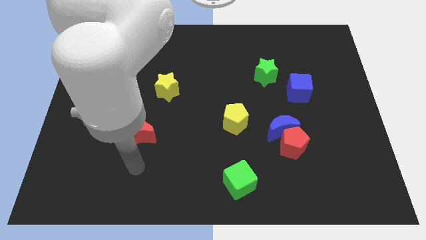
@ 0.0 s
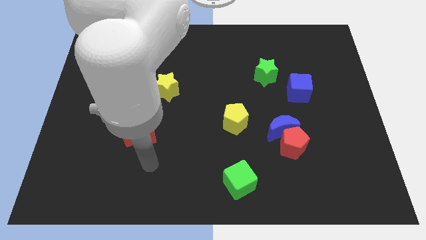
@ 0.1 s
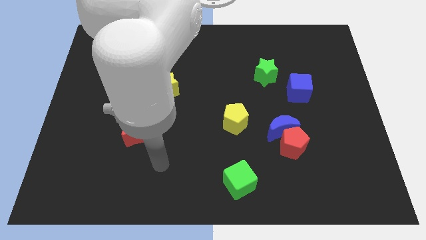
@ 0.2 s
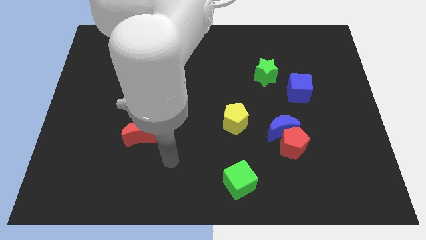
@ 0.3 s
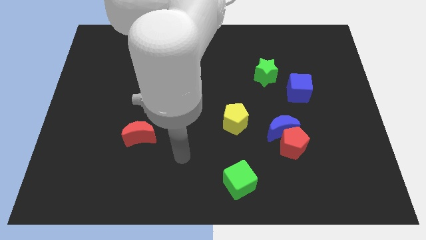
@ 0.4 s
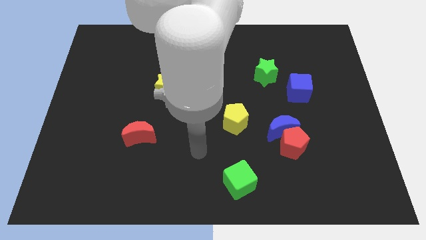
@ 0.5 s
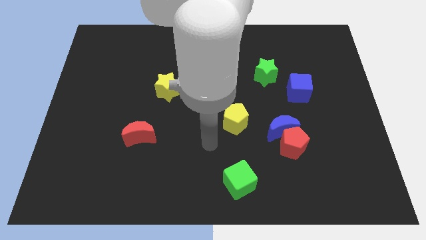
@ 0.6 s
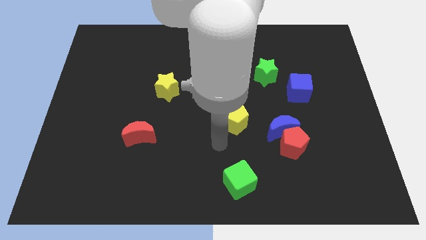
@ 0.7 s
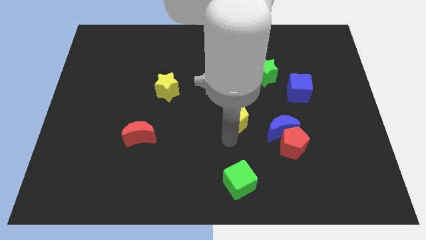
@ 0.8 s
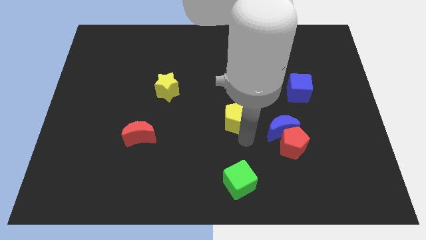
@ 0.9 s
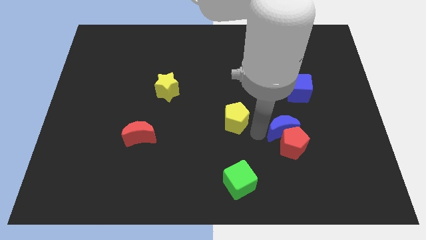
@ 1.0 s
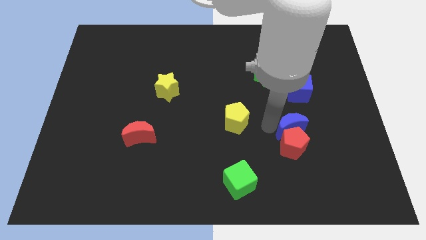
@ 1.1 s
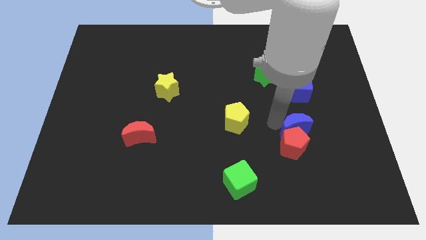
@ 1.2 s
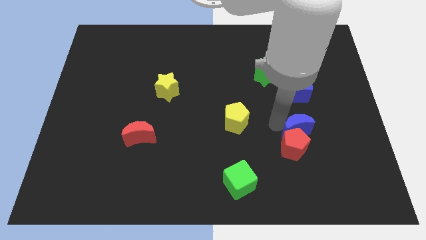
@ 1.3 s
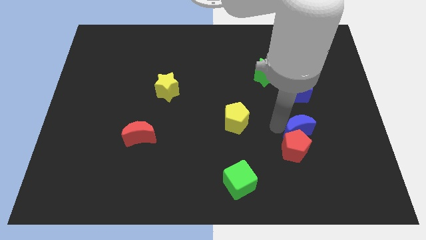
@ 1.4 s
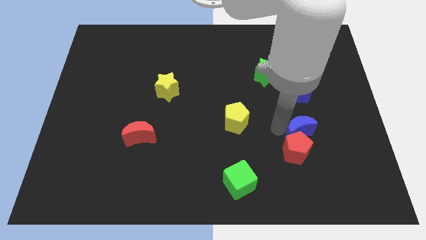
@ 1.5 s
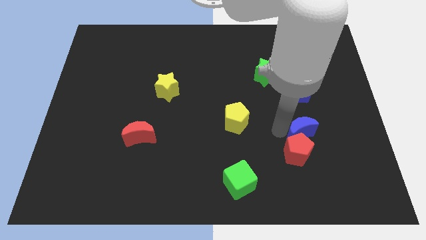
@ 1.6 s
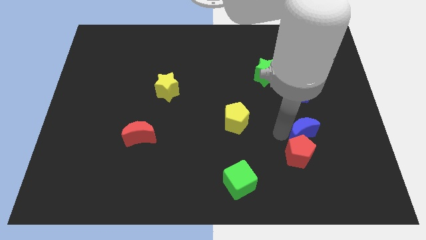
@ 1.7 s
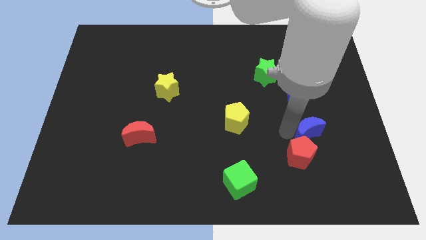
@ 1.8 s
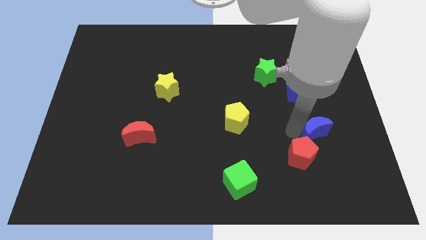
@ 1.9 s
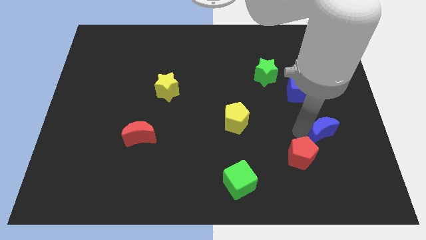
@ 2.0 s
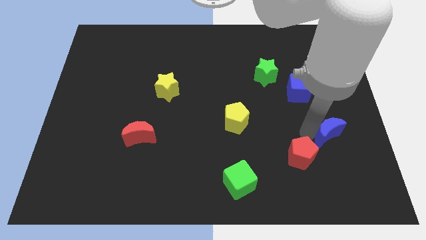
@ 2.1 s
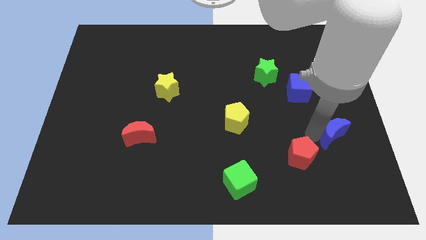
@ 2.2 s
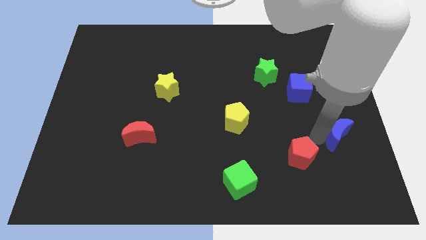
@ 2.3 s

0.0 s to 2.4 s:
separate the red pentagon from the blue moon

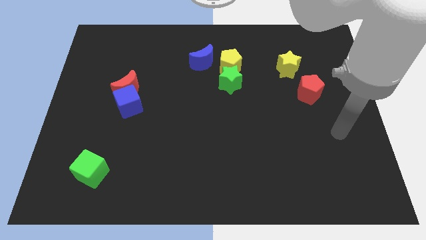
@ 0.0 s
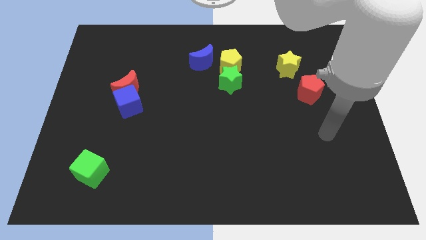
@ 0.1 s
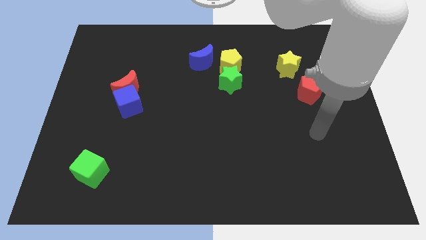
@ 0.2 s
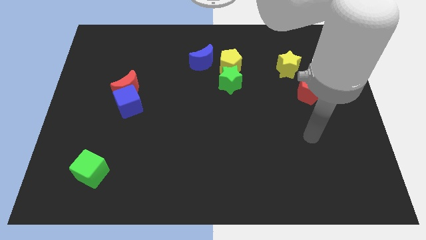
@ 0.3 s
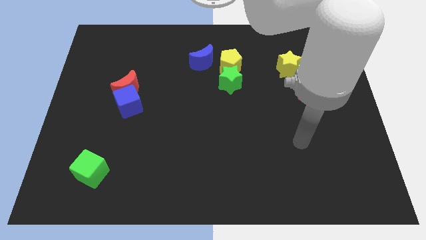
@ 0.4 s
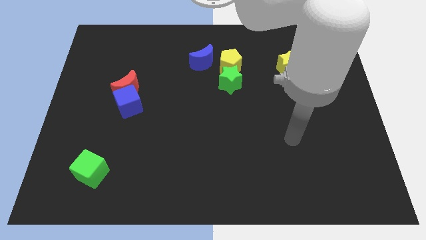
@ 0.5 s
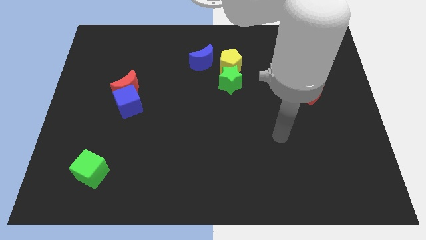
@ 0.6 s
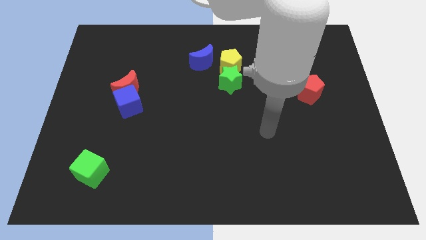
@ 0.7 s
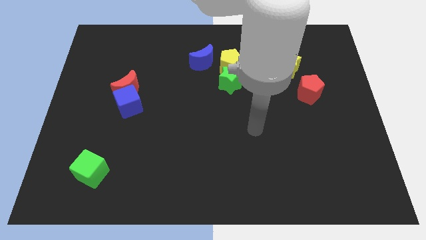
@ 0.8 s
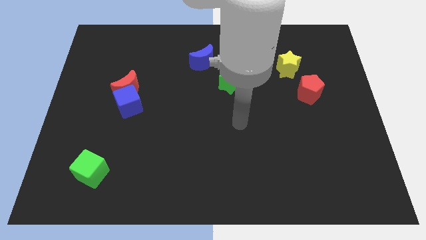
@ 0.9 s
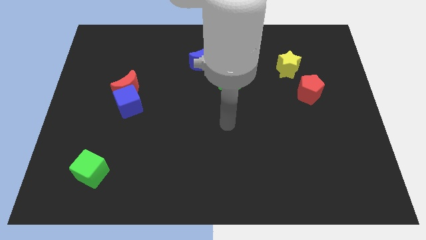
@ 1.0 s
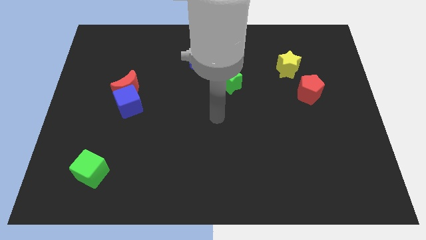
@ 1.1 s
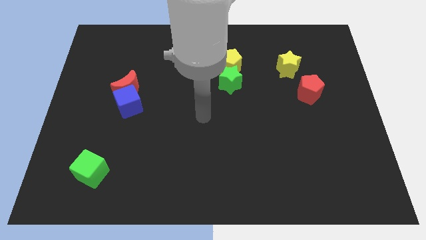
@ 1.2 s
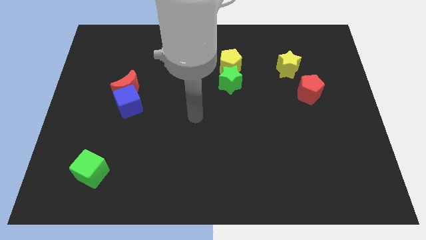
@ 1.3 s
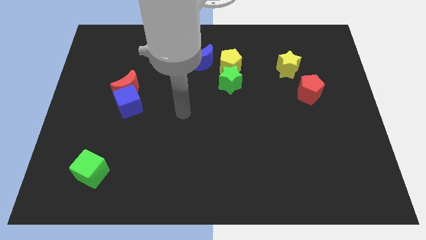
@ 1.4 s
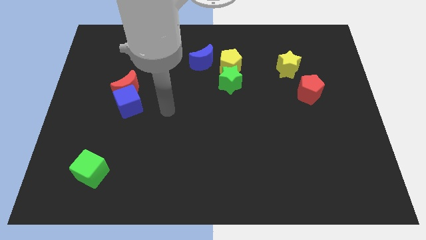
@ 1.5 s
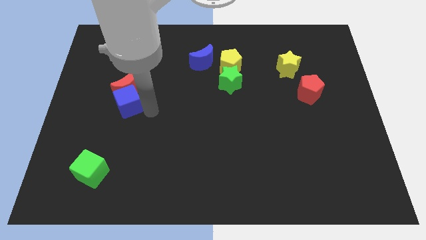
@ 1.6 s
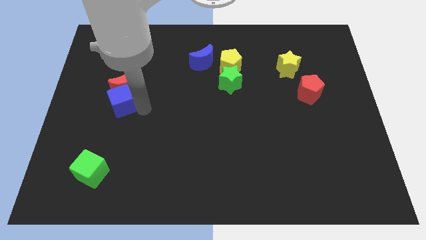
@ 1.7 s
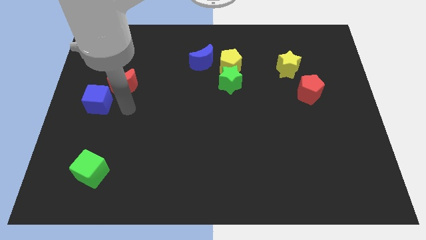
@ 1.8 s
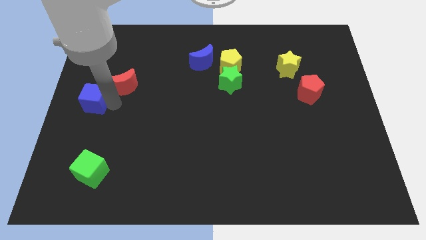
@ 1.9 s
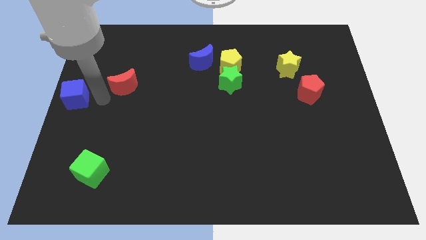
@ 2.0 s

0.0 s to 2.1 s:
pull the red moon apart from the blue cube

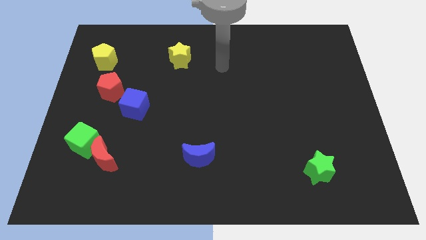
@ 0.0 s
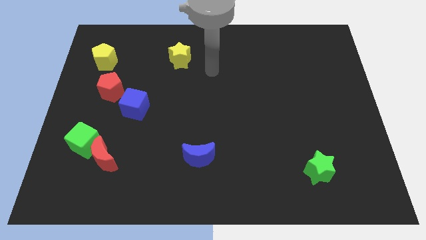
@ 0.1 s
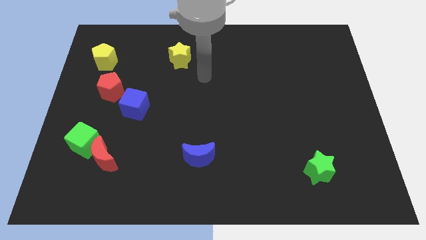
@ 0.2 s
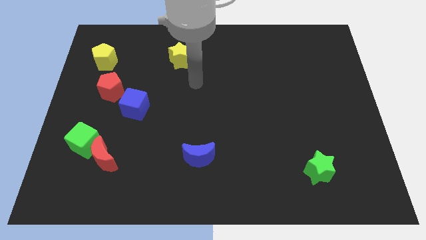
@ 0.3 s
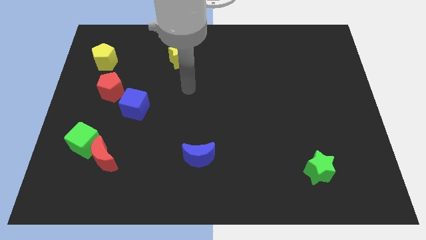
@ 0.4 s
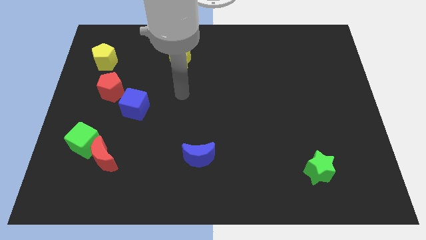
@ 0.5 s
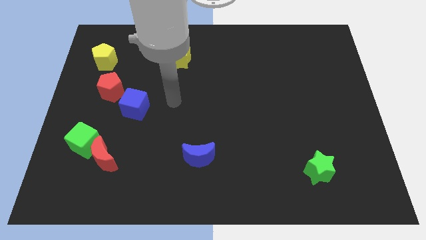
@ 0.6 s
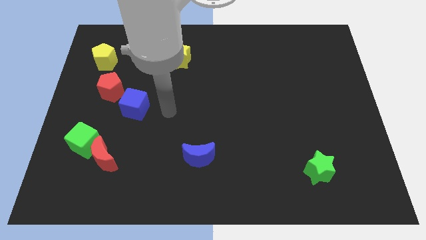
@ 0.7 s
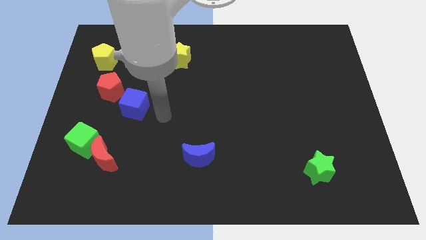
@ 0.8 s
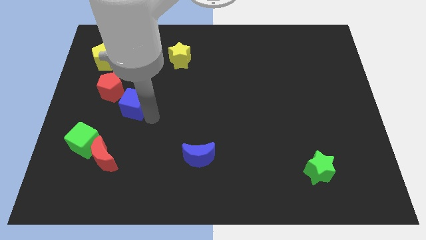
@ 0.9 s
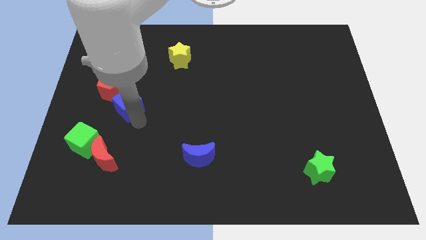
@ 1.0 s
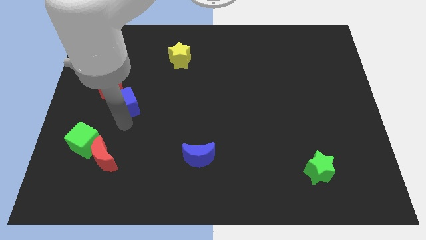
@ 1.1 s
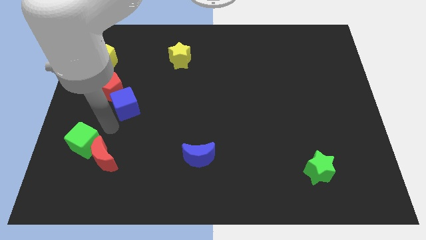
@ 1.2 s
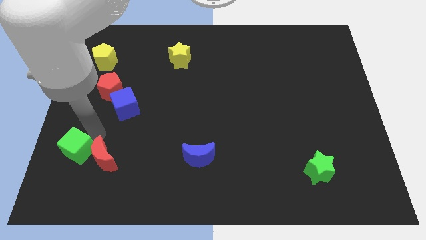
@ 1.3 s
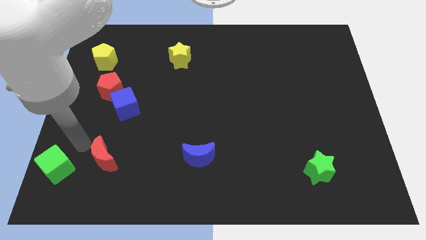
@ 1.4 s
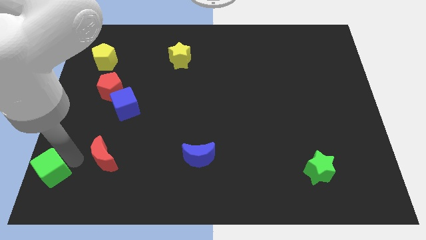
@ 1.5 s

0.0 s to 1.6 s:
separate the red moon from the green cube

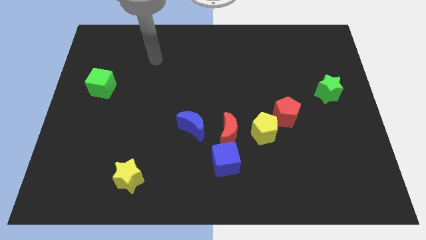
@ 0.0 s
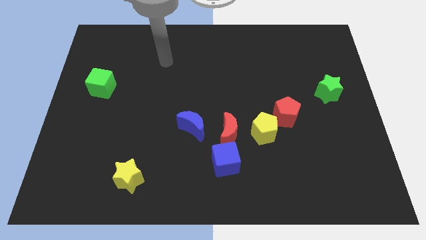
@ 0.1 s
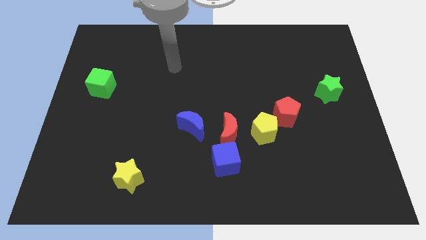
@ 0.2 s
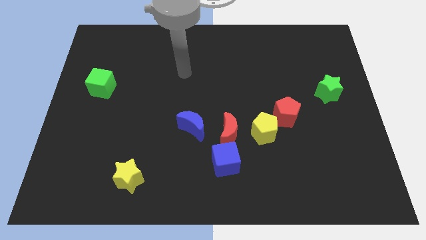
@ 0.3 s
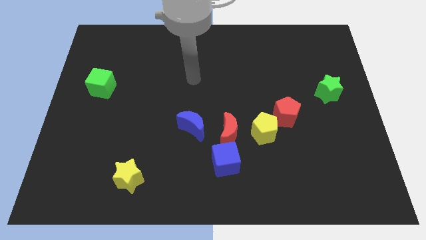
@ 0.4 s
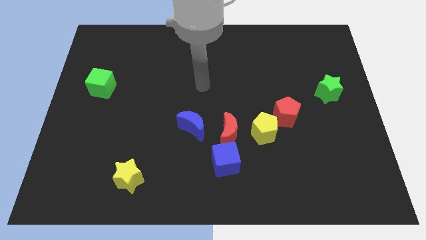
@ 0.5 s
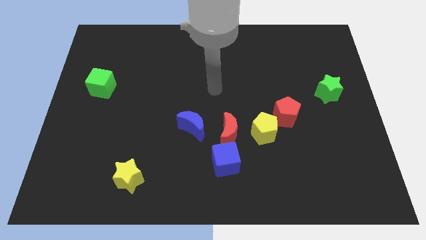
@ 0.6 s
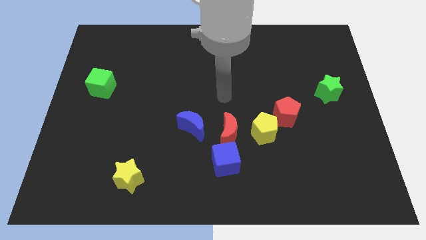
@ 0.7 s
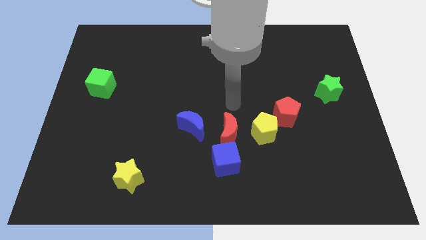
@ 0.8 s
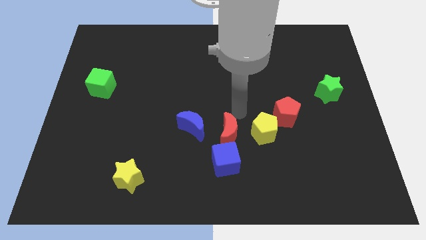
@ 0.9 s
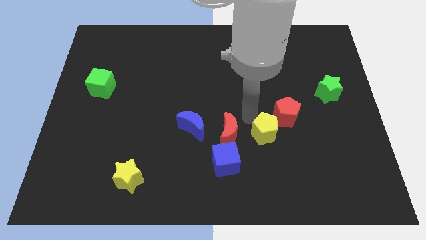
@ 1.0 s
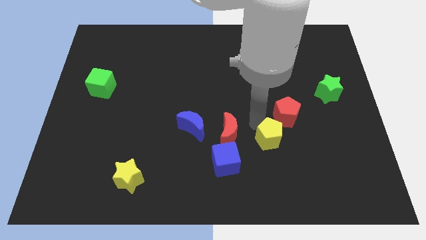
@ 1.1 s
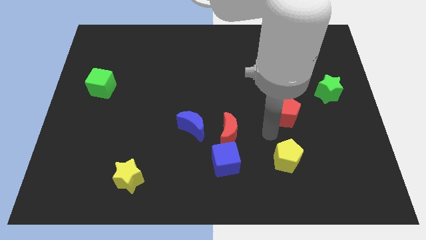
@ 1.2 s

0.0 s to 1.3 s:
pull the red pentagon apart from the yellow pentagon

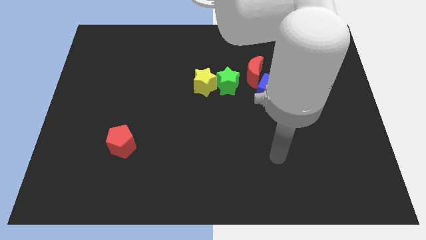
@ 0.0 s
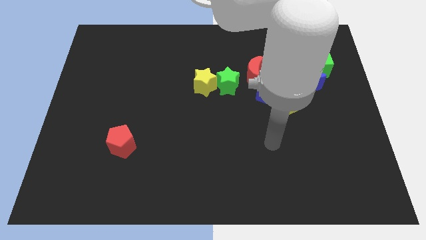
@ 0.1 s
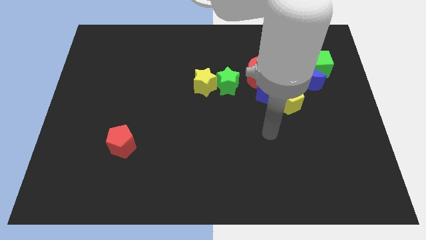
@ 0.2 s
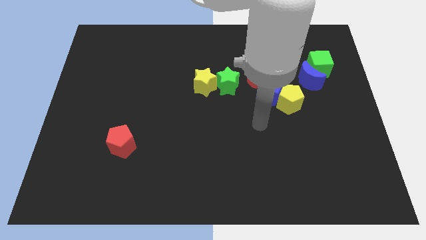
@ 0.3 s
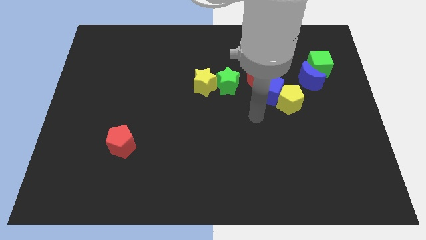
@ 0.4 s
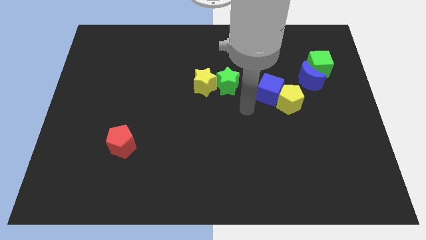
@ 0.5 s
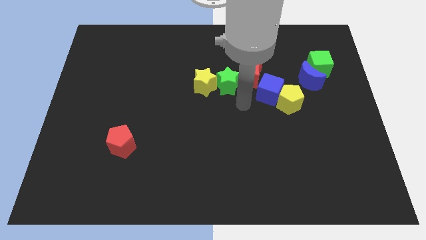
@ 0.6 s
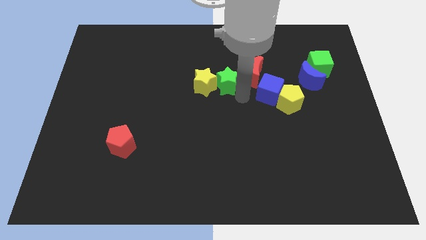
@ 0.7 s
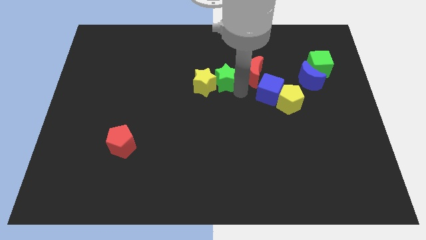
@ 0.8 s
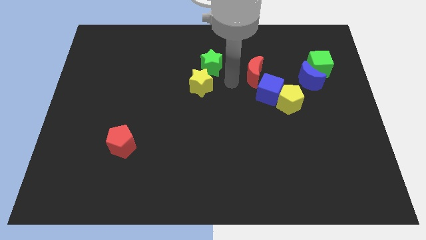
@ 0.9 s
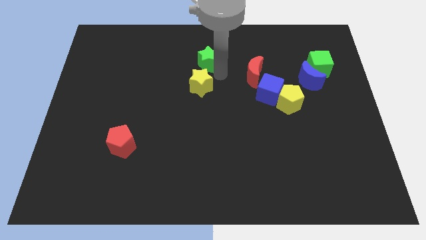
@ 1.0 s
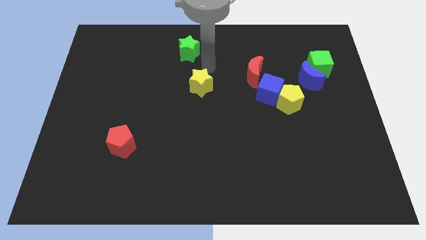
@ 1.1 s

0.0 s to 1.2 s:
move the yellow star away from the green star

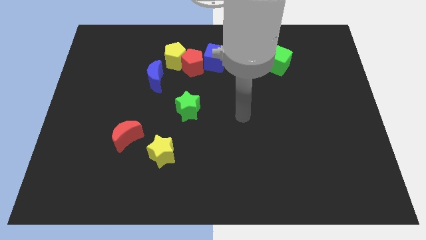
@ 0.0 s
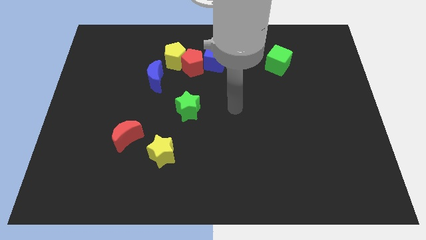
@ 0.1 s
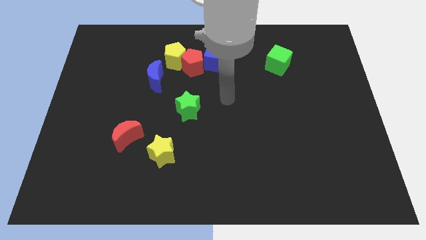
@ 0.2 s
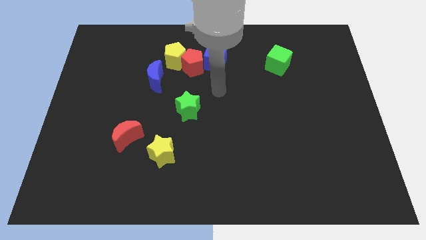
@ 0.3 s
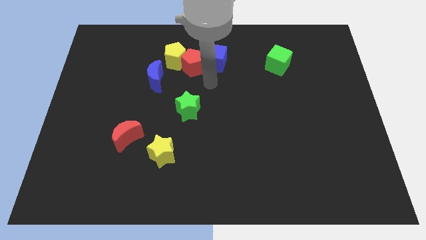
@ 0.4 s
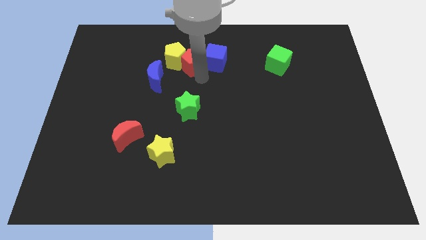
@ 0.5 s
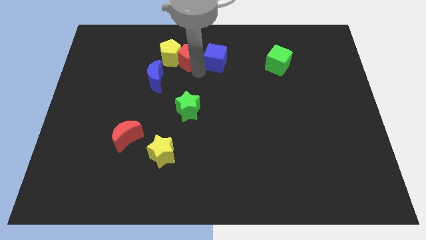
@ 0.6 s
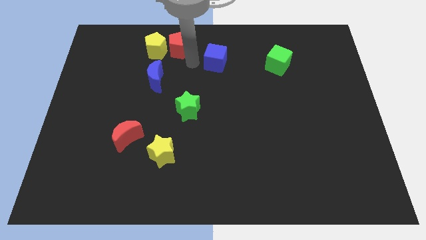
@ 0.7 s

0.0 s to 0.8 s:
pull the blue cube apart from the red pentagon
